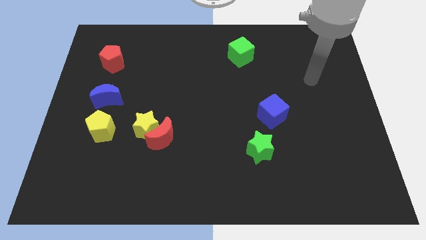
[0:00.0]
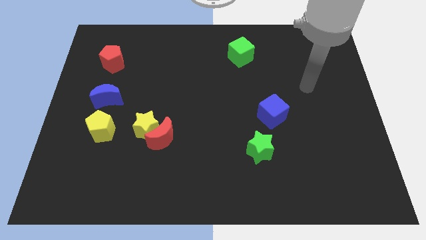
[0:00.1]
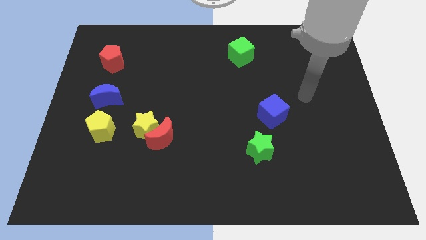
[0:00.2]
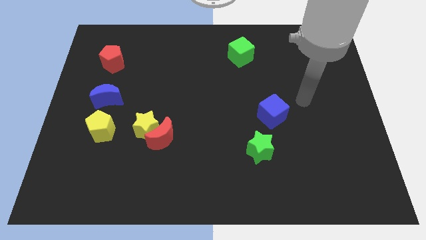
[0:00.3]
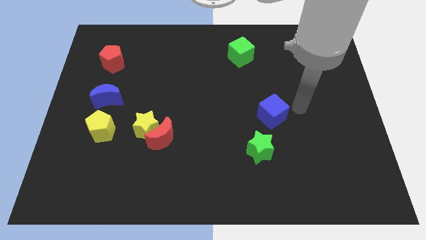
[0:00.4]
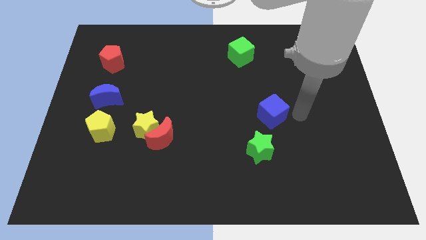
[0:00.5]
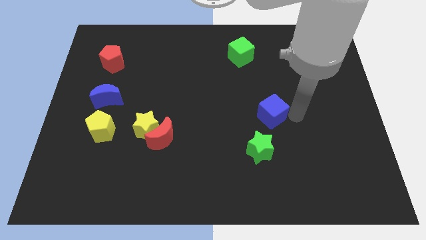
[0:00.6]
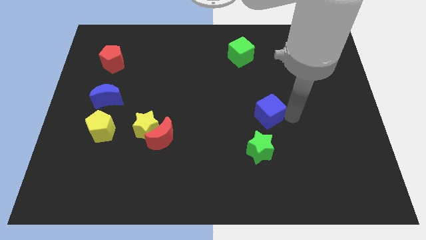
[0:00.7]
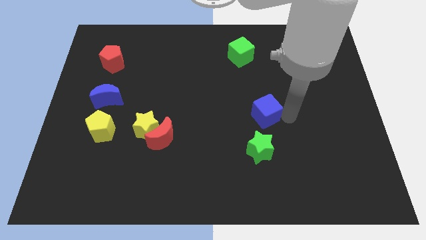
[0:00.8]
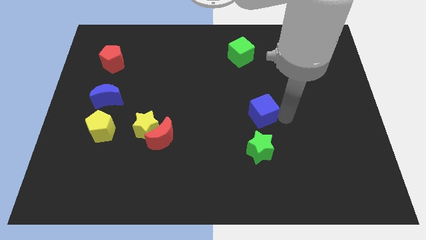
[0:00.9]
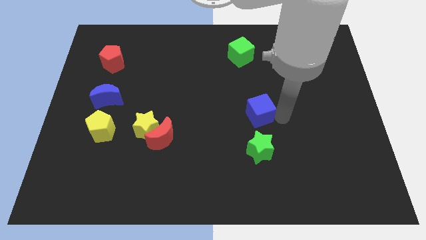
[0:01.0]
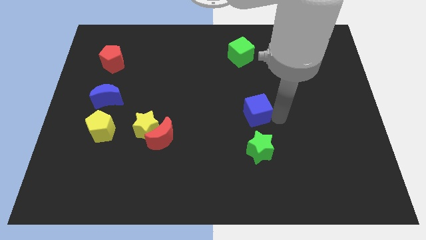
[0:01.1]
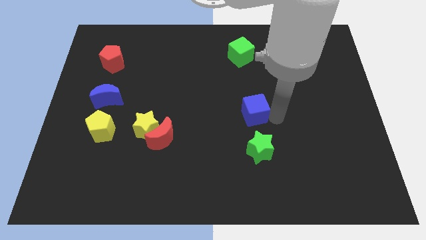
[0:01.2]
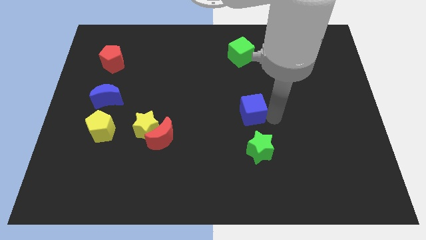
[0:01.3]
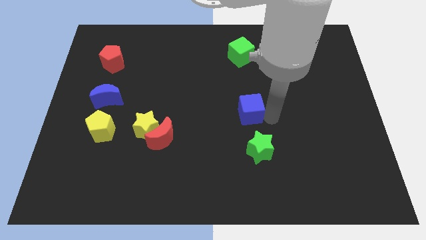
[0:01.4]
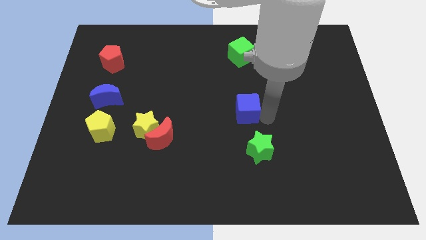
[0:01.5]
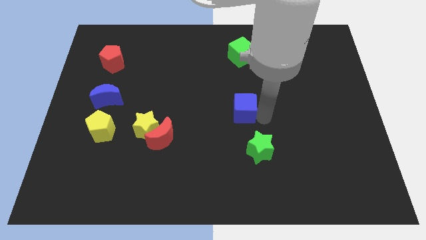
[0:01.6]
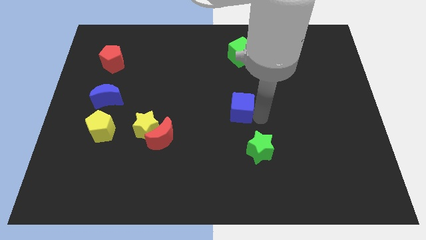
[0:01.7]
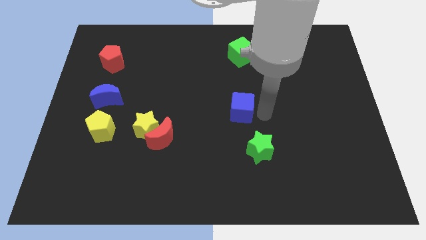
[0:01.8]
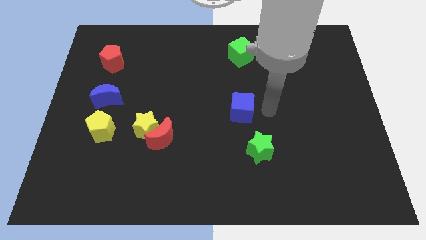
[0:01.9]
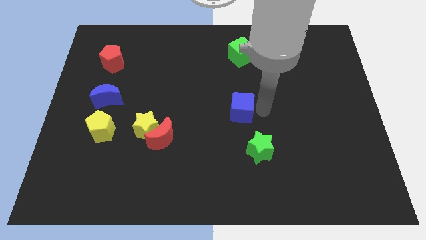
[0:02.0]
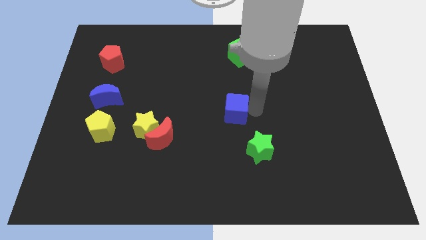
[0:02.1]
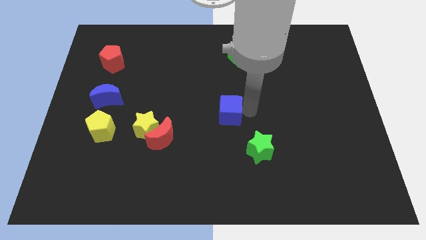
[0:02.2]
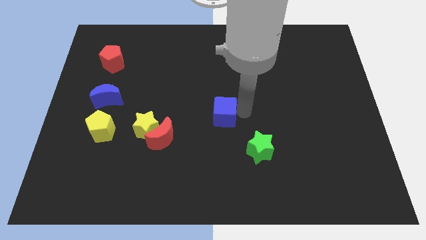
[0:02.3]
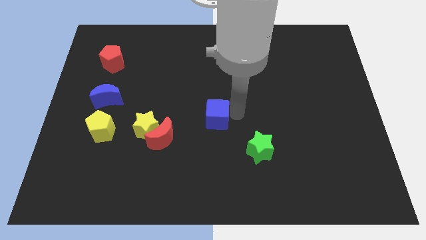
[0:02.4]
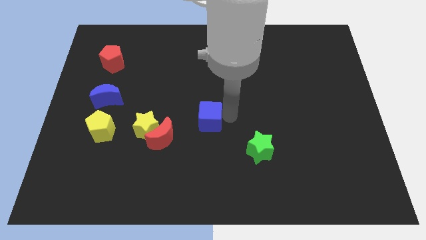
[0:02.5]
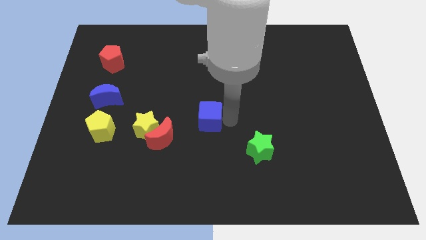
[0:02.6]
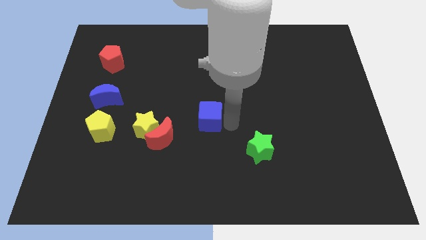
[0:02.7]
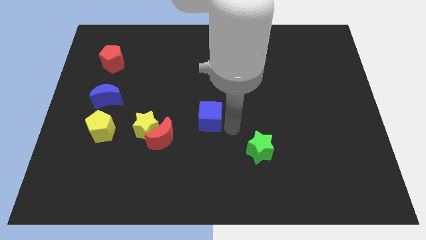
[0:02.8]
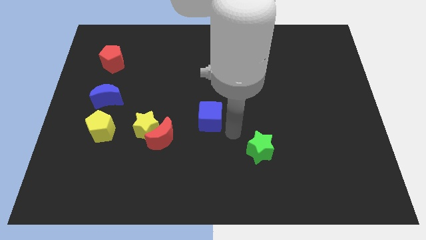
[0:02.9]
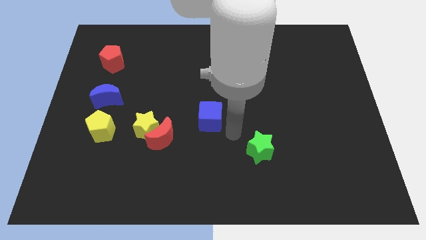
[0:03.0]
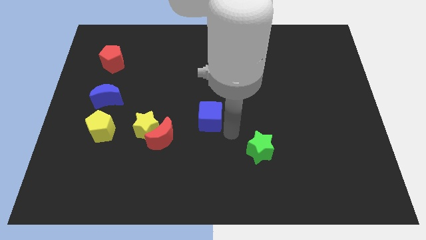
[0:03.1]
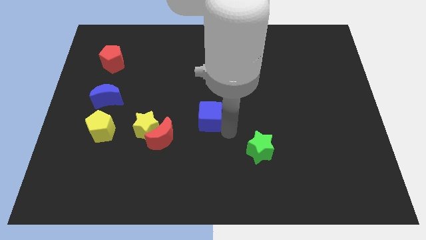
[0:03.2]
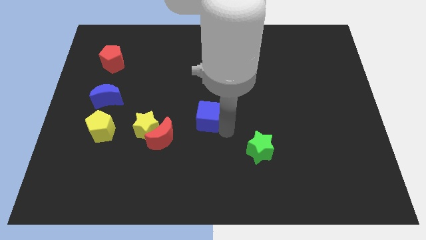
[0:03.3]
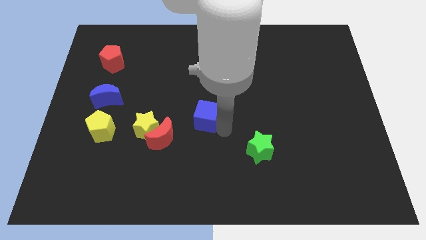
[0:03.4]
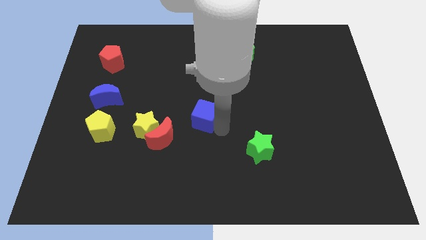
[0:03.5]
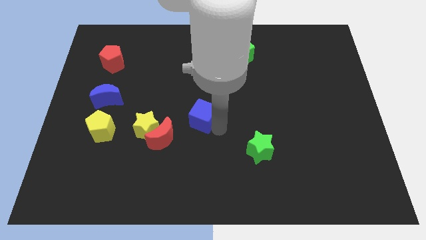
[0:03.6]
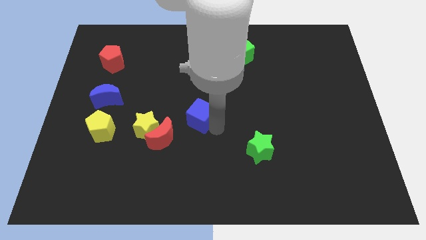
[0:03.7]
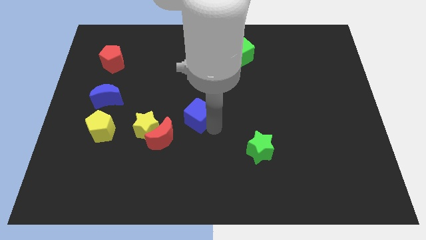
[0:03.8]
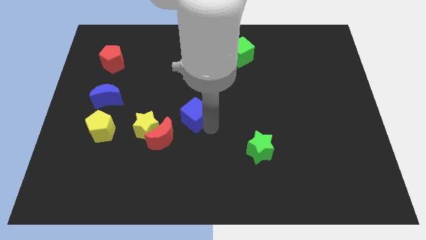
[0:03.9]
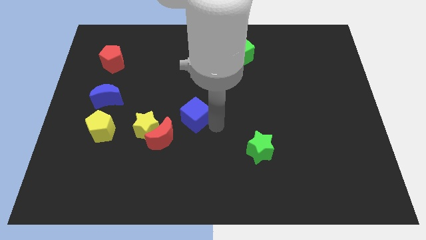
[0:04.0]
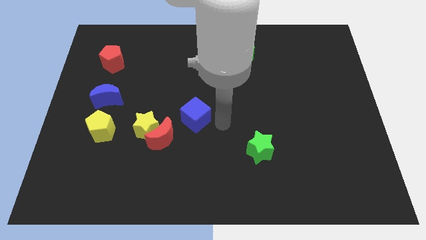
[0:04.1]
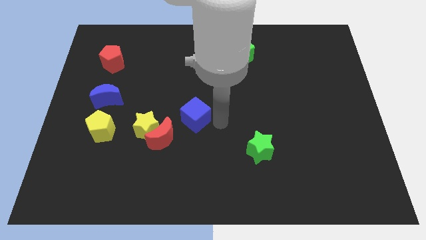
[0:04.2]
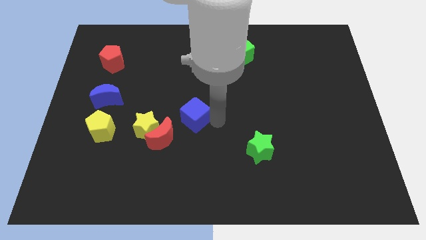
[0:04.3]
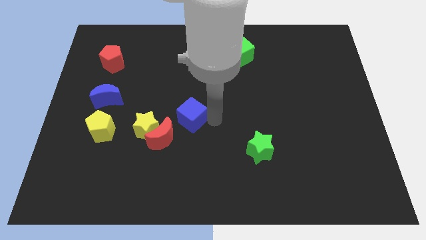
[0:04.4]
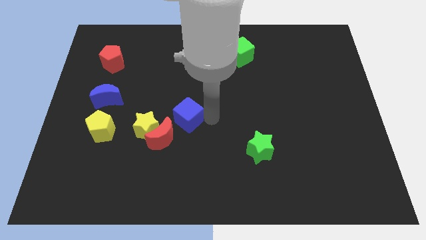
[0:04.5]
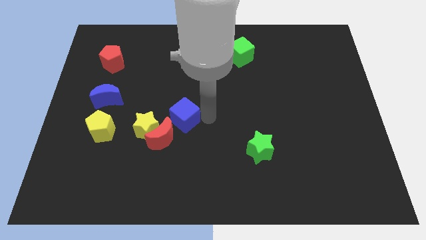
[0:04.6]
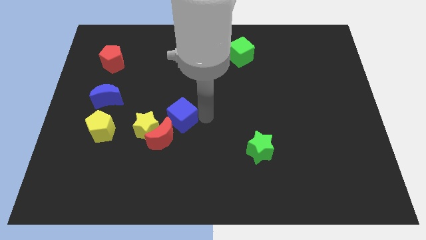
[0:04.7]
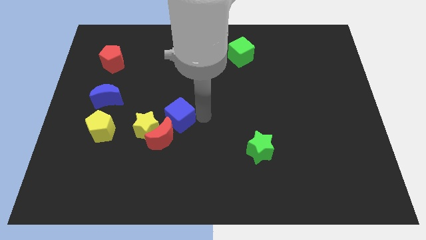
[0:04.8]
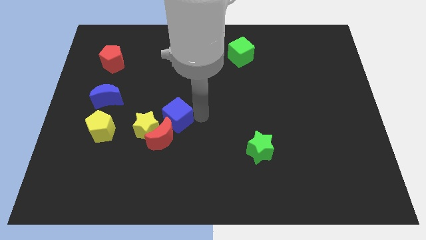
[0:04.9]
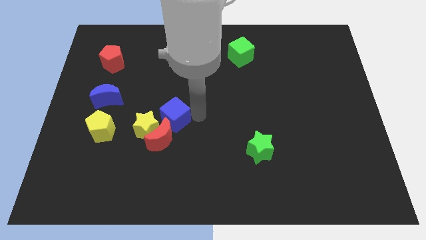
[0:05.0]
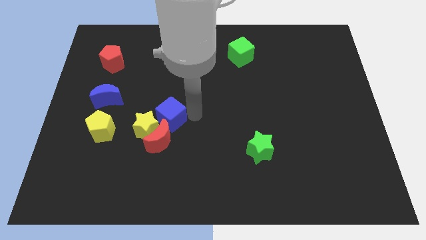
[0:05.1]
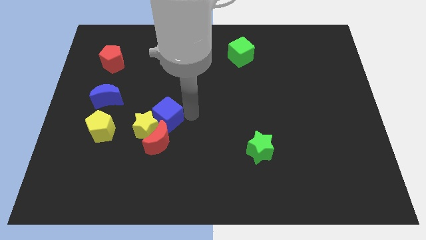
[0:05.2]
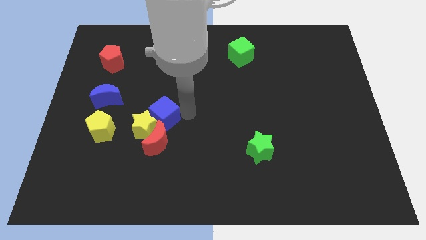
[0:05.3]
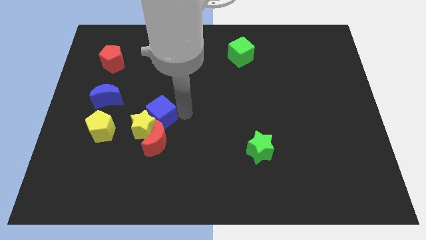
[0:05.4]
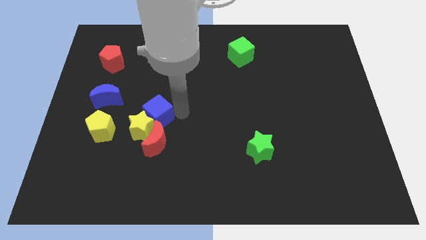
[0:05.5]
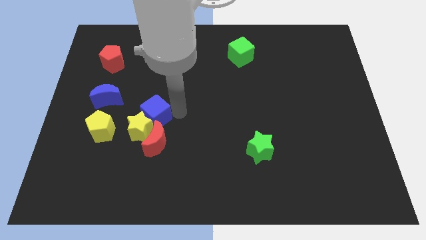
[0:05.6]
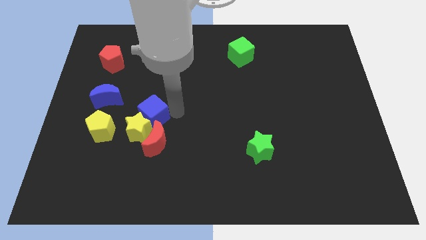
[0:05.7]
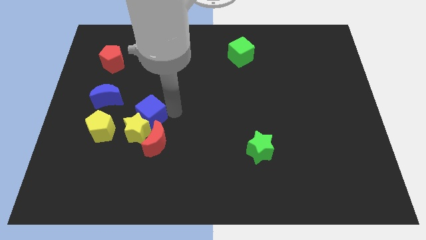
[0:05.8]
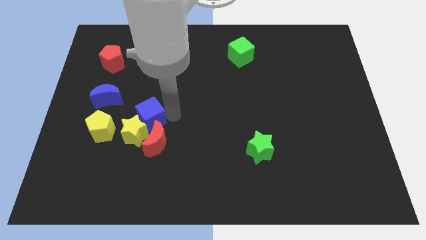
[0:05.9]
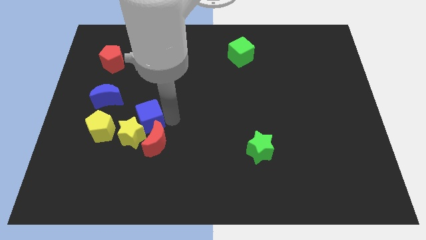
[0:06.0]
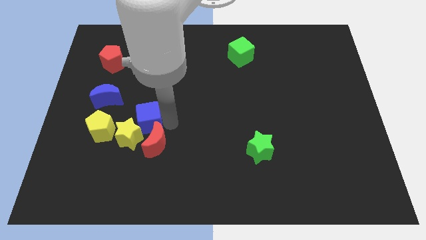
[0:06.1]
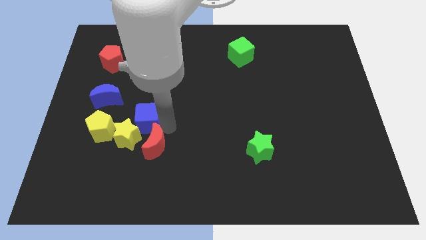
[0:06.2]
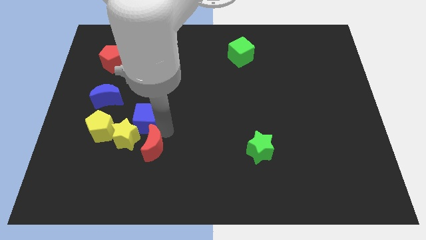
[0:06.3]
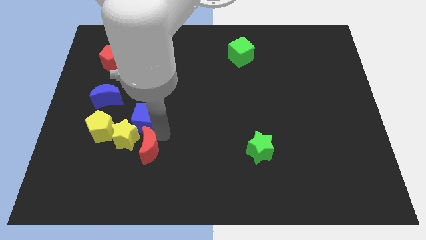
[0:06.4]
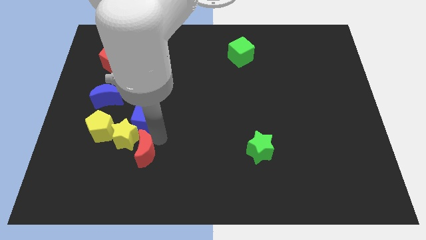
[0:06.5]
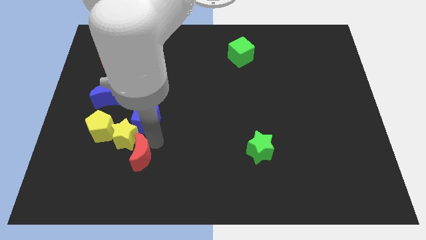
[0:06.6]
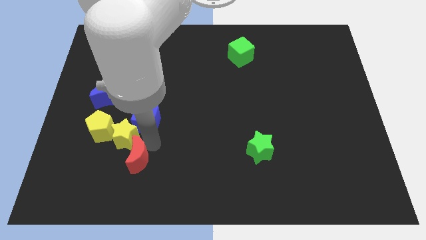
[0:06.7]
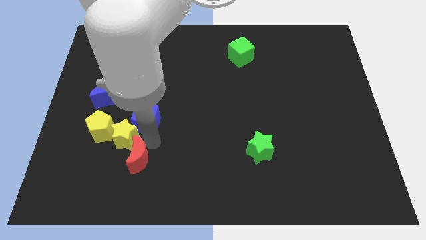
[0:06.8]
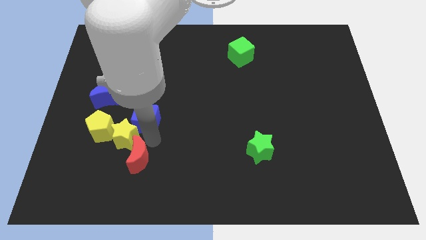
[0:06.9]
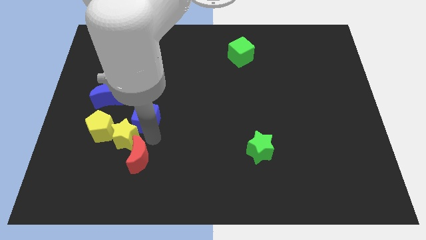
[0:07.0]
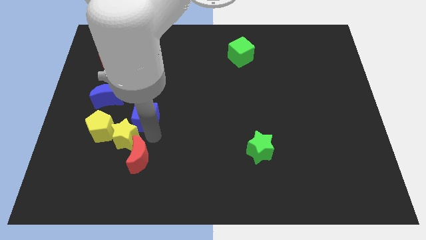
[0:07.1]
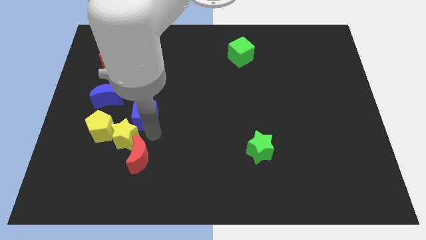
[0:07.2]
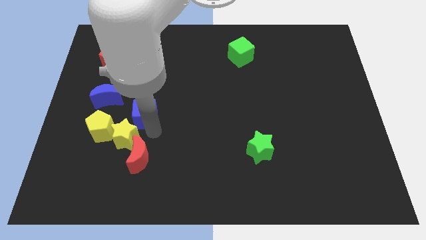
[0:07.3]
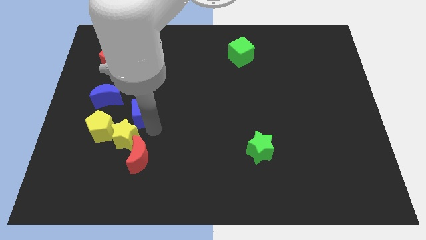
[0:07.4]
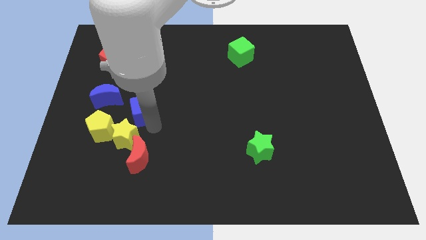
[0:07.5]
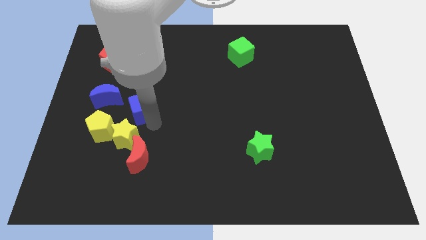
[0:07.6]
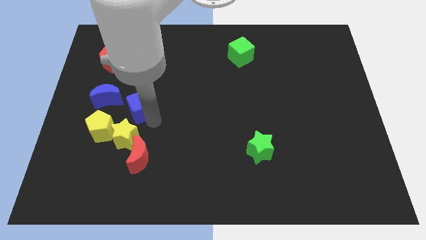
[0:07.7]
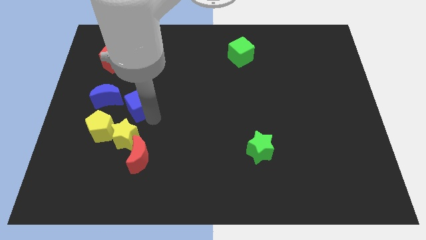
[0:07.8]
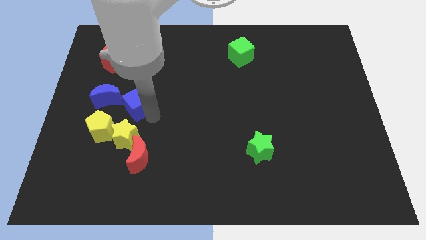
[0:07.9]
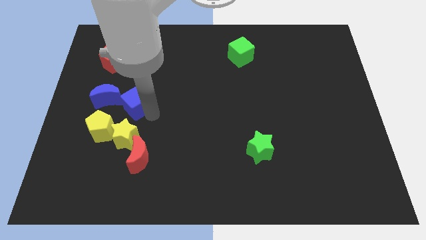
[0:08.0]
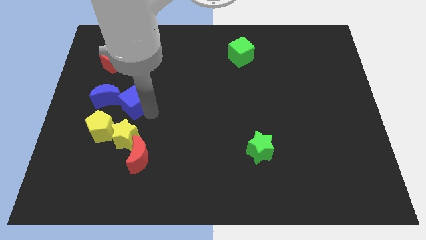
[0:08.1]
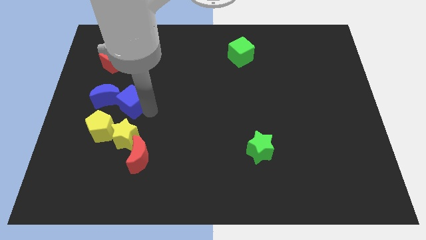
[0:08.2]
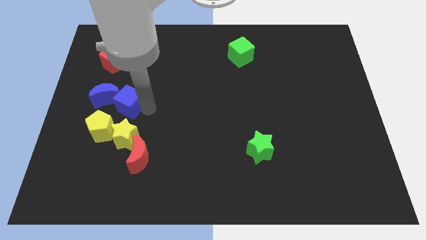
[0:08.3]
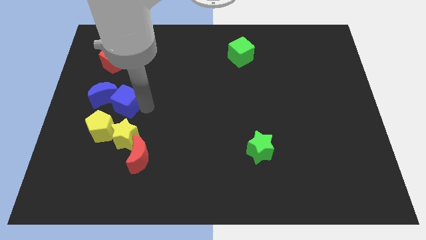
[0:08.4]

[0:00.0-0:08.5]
push the blue cube above the yellow pentagon
